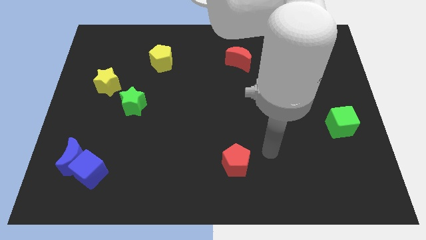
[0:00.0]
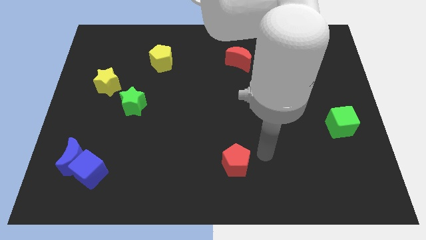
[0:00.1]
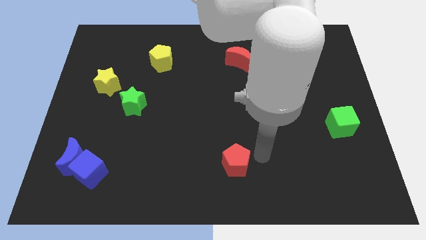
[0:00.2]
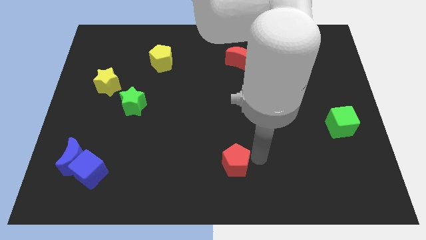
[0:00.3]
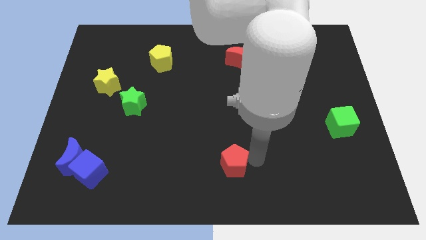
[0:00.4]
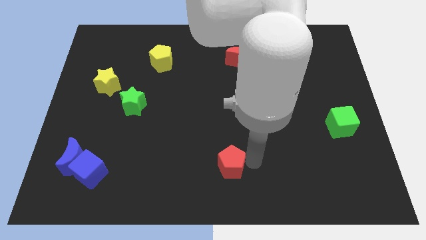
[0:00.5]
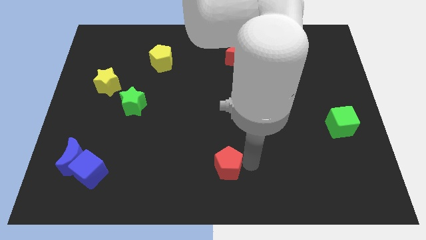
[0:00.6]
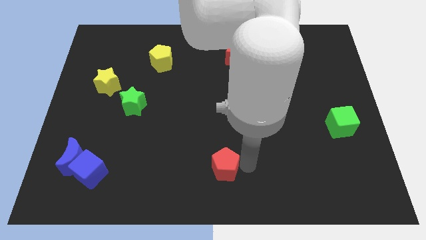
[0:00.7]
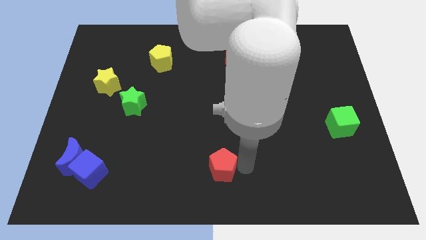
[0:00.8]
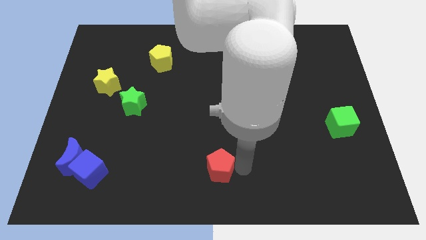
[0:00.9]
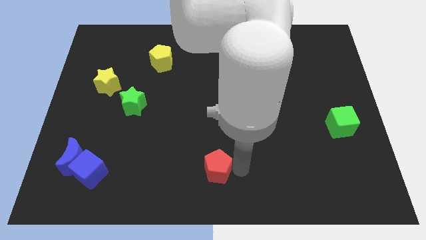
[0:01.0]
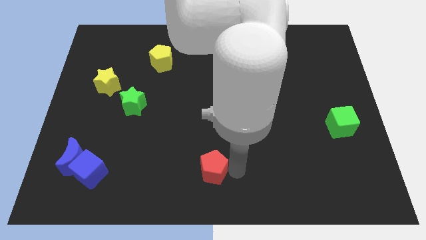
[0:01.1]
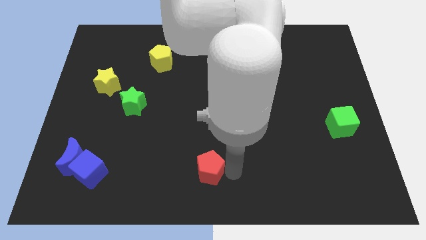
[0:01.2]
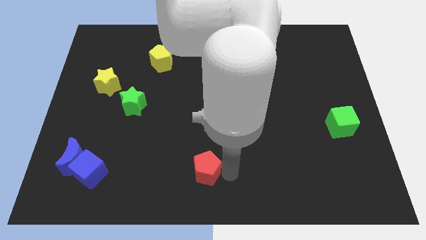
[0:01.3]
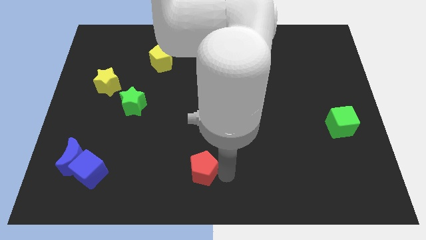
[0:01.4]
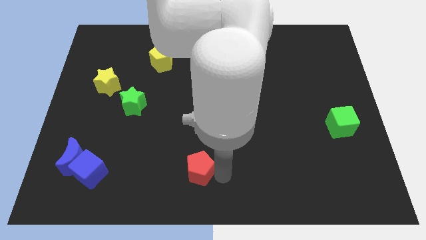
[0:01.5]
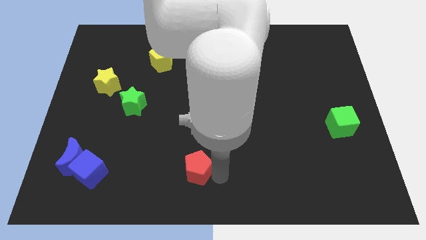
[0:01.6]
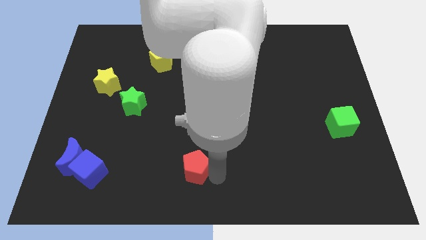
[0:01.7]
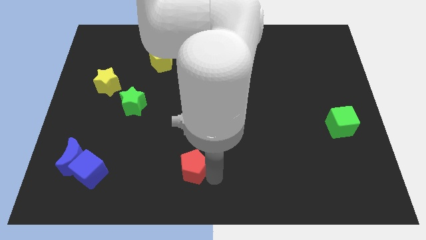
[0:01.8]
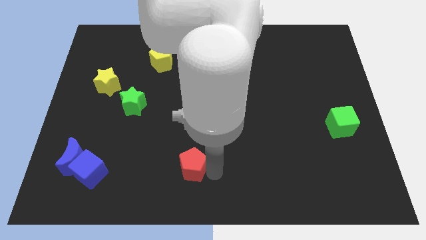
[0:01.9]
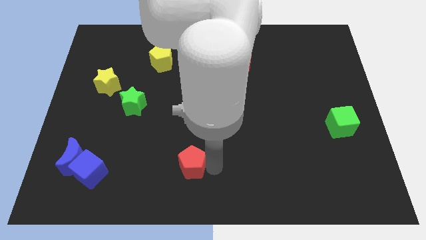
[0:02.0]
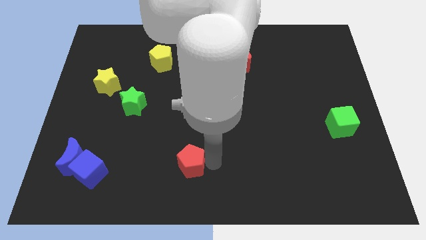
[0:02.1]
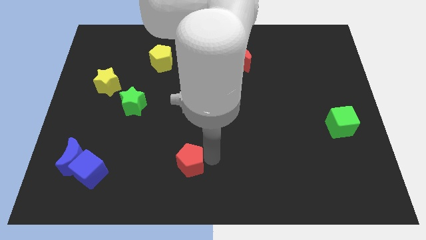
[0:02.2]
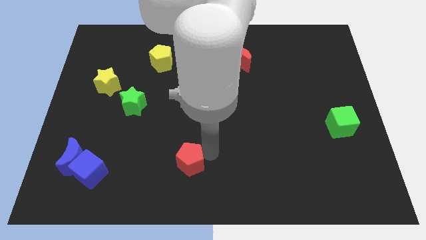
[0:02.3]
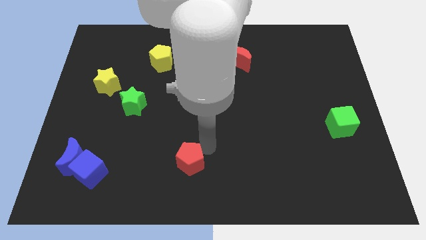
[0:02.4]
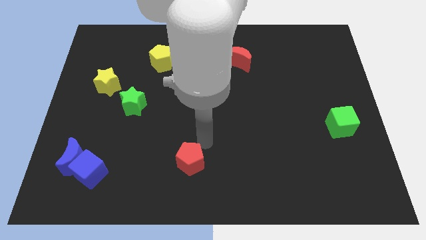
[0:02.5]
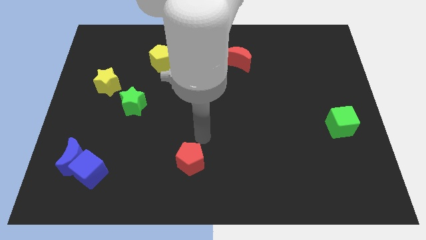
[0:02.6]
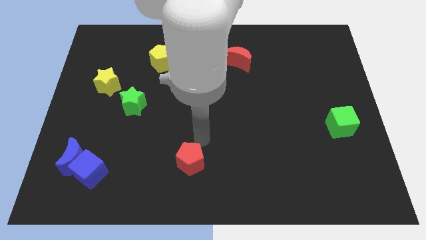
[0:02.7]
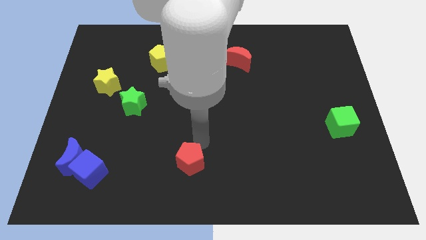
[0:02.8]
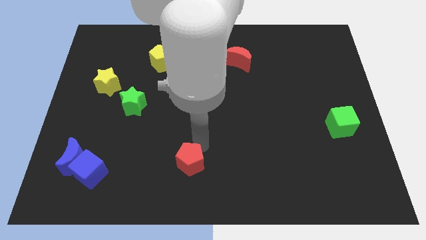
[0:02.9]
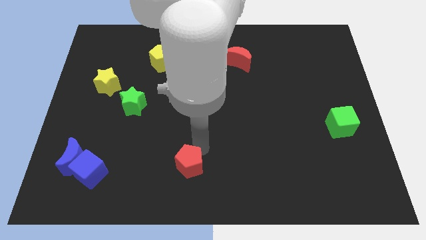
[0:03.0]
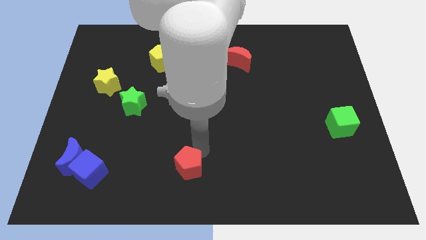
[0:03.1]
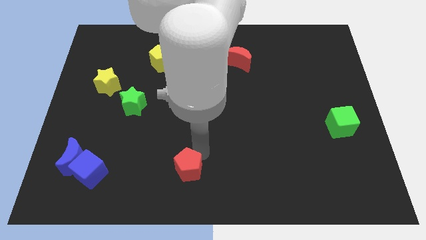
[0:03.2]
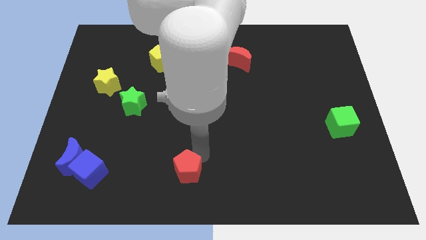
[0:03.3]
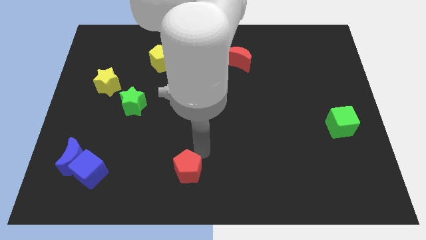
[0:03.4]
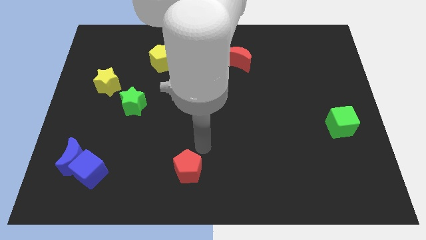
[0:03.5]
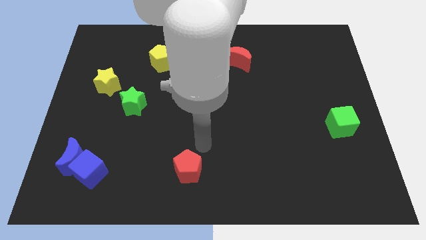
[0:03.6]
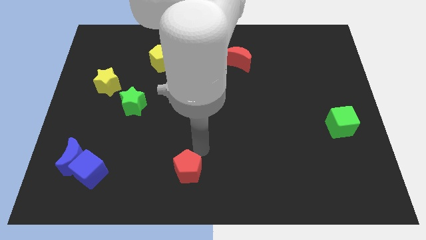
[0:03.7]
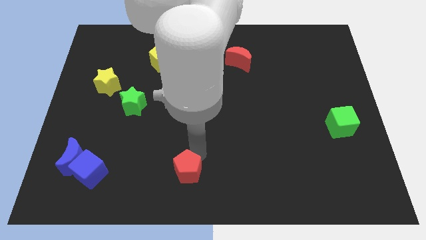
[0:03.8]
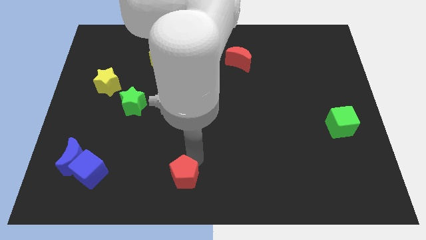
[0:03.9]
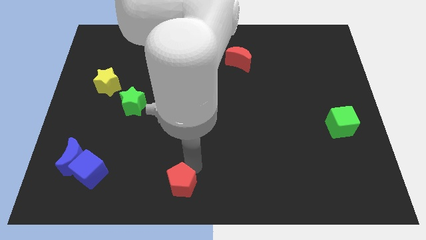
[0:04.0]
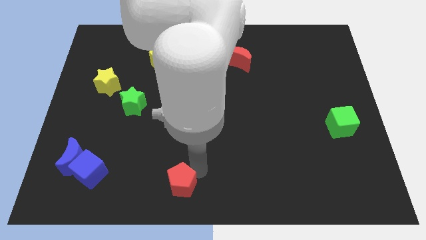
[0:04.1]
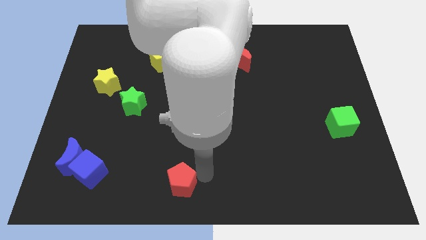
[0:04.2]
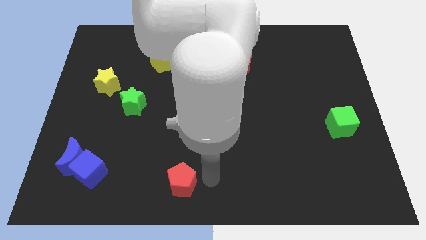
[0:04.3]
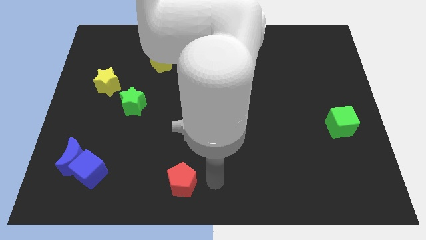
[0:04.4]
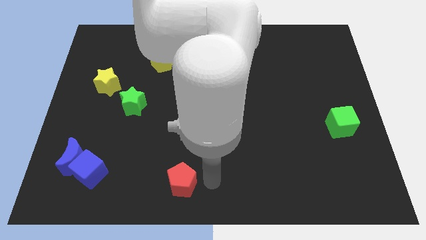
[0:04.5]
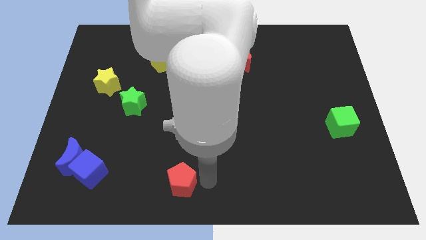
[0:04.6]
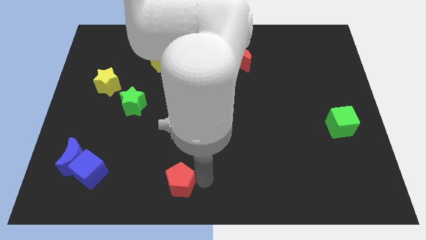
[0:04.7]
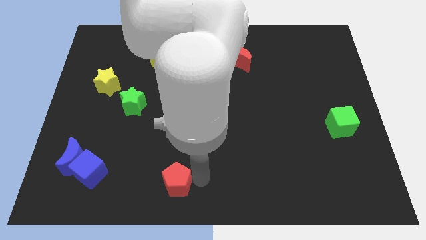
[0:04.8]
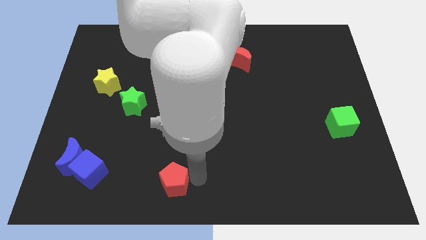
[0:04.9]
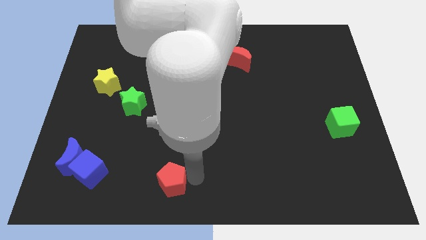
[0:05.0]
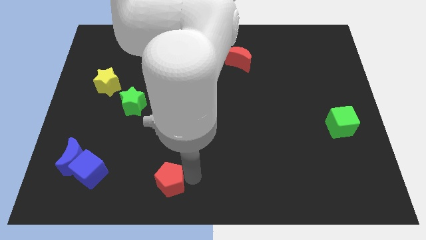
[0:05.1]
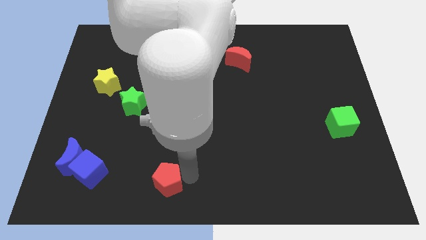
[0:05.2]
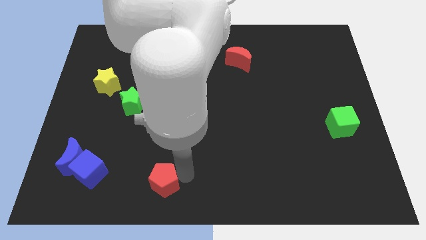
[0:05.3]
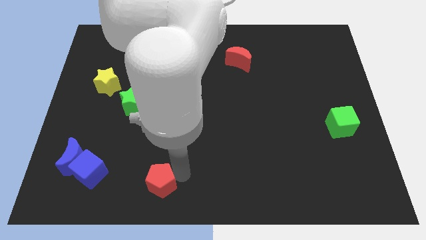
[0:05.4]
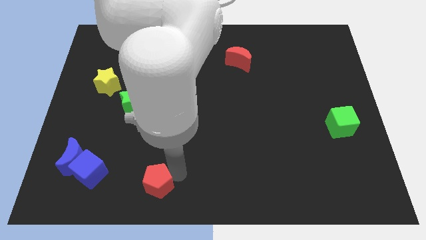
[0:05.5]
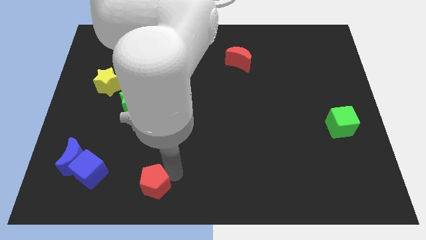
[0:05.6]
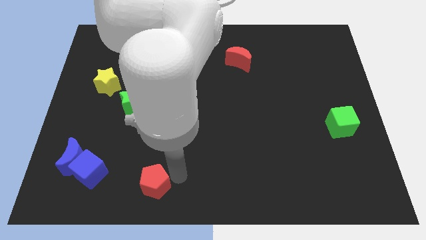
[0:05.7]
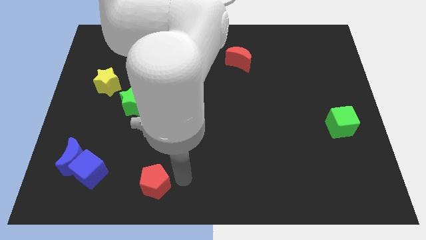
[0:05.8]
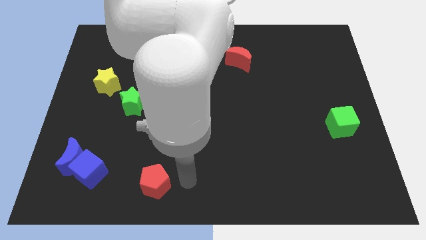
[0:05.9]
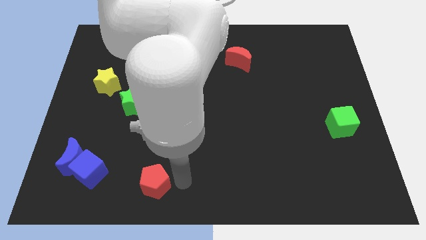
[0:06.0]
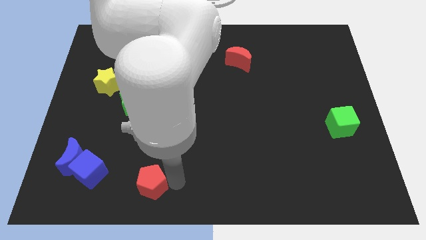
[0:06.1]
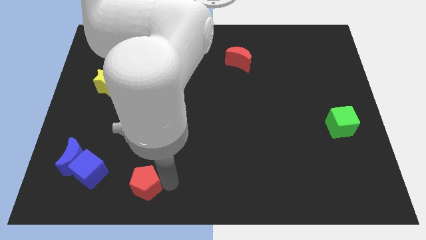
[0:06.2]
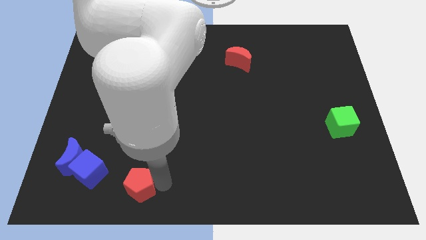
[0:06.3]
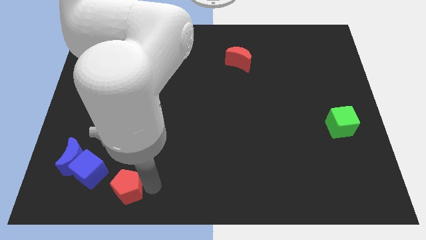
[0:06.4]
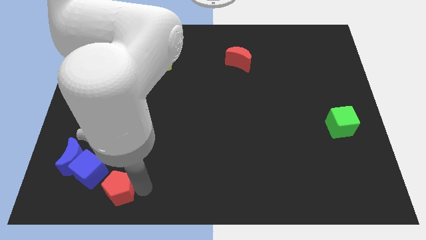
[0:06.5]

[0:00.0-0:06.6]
push the red pentagon diagonally down and to the right of the blue moon

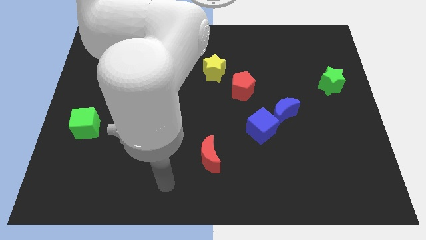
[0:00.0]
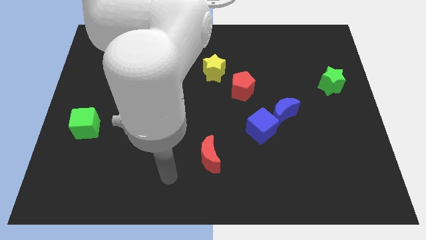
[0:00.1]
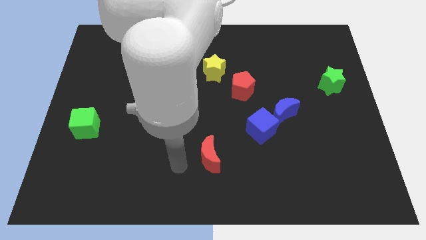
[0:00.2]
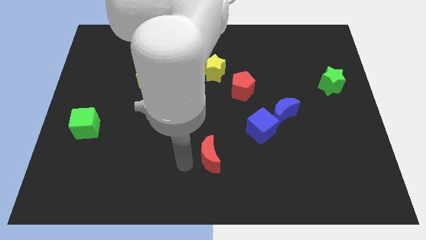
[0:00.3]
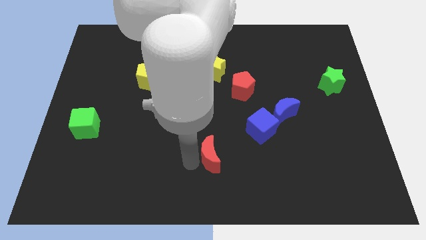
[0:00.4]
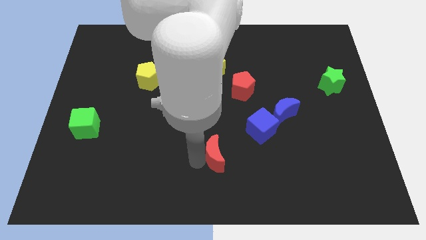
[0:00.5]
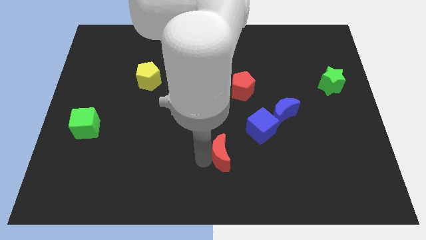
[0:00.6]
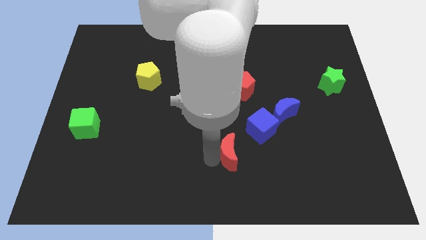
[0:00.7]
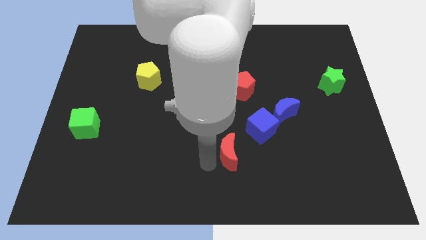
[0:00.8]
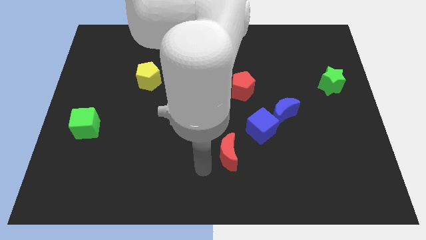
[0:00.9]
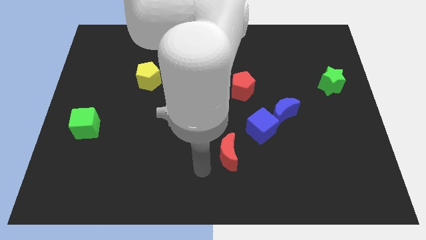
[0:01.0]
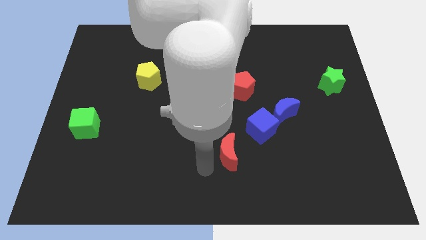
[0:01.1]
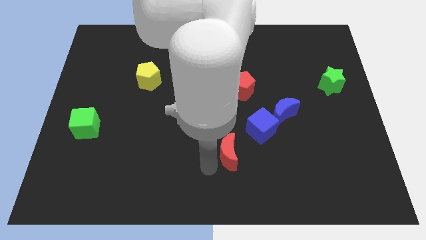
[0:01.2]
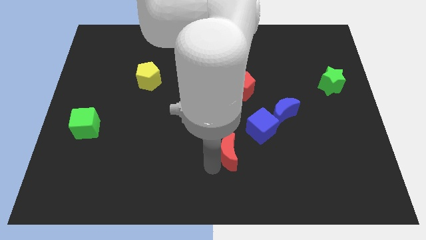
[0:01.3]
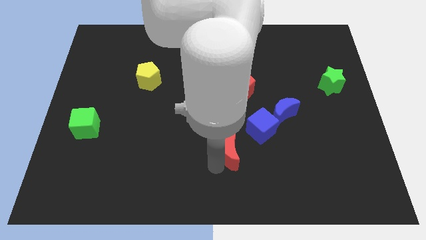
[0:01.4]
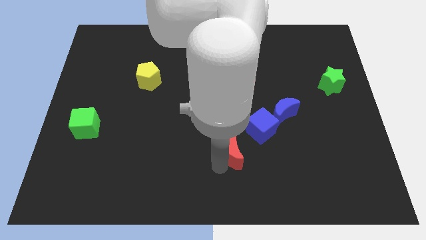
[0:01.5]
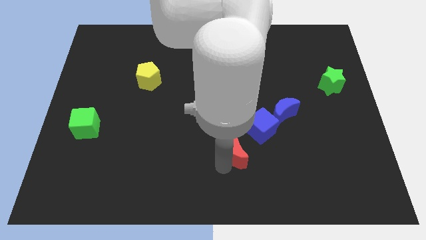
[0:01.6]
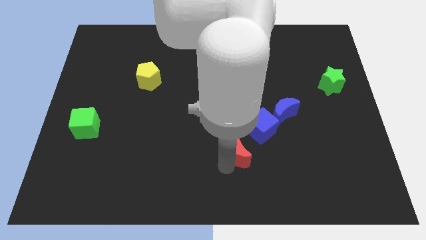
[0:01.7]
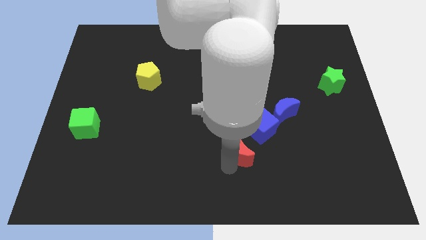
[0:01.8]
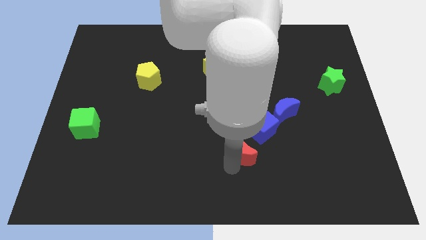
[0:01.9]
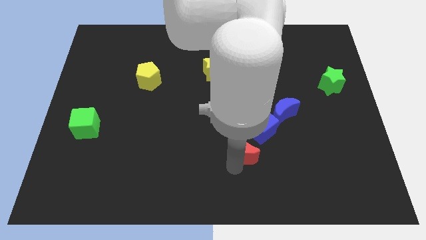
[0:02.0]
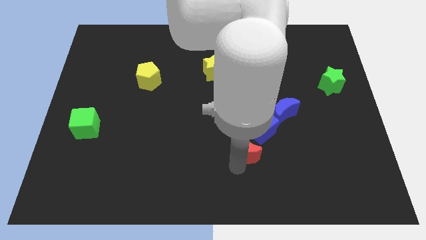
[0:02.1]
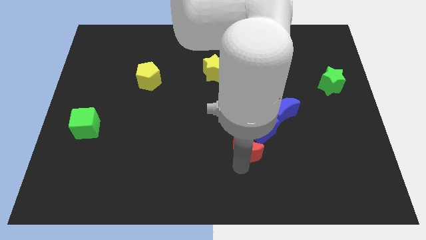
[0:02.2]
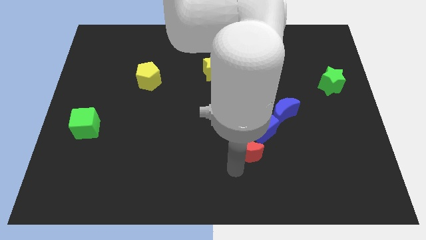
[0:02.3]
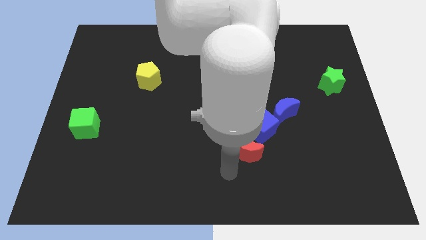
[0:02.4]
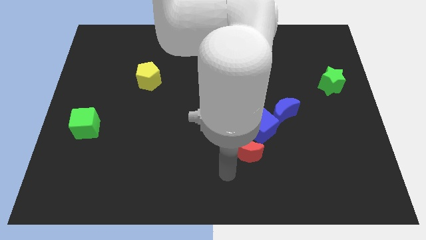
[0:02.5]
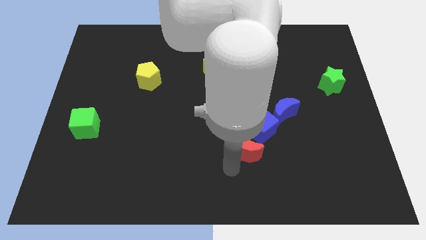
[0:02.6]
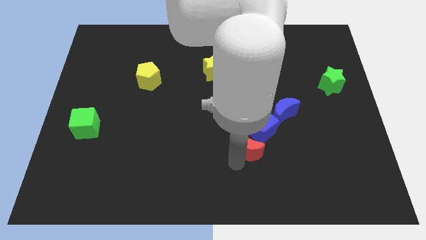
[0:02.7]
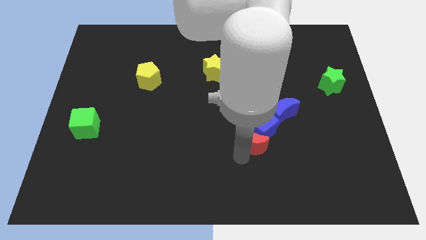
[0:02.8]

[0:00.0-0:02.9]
move the red moon to the bottom left of the blue moon
